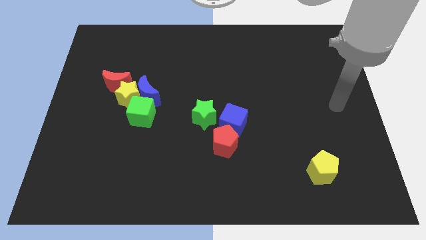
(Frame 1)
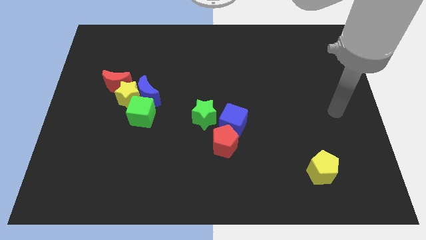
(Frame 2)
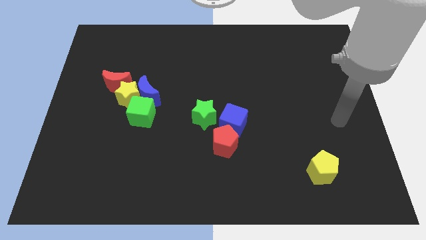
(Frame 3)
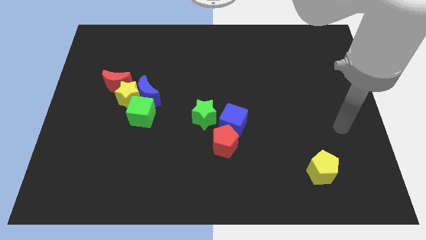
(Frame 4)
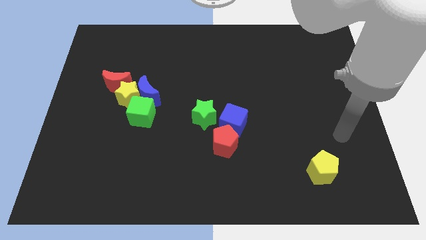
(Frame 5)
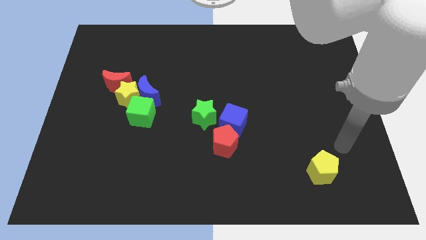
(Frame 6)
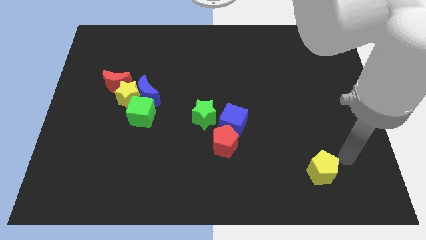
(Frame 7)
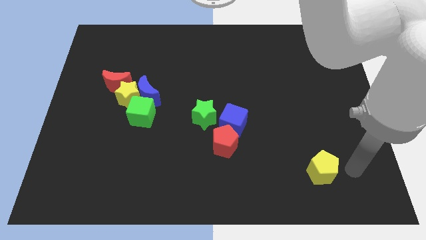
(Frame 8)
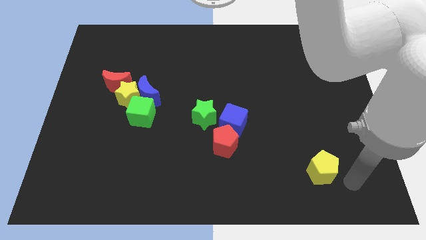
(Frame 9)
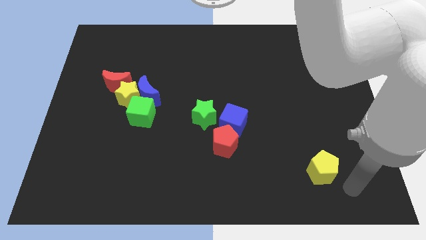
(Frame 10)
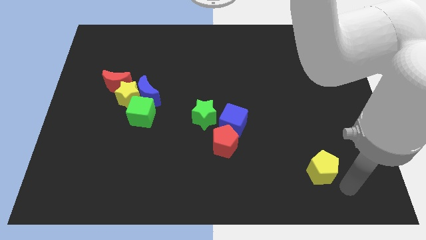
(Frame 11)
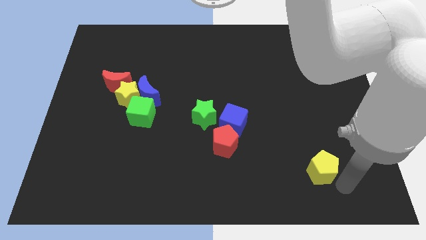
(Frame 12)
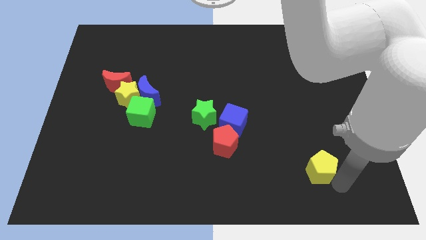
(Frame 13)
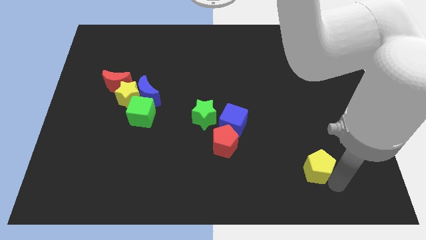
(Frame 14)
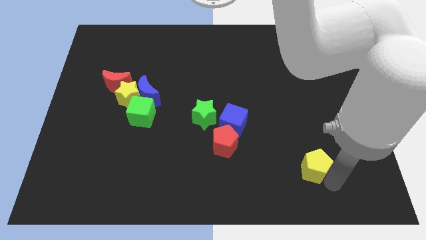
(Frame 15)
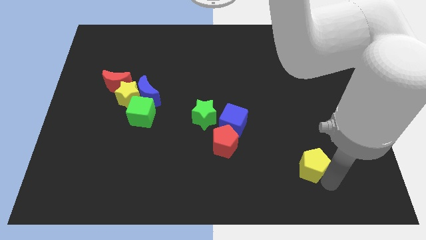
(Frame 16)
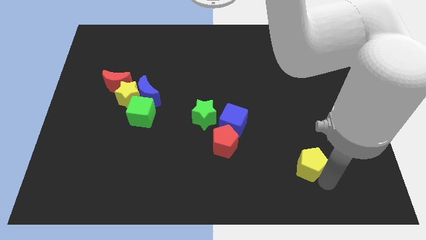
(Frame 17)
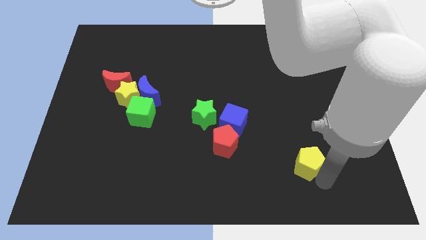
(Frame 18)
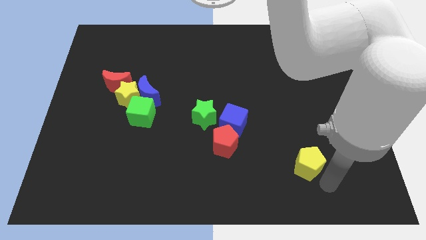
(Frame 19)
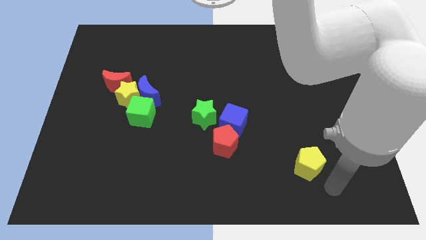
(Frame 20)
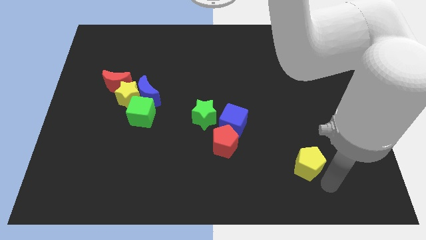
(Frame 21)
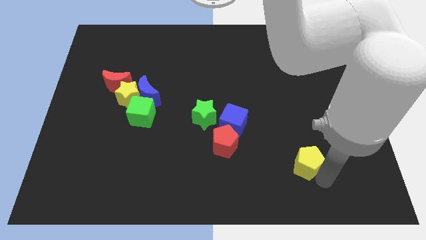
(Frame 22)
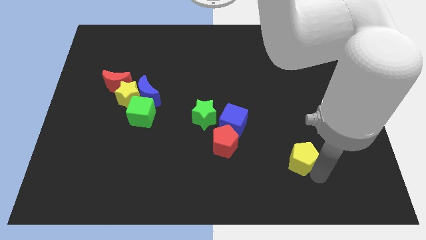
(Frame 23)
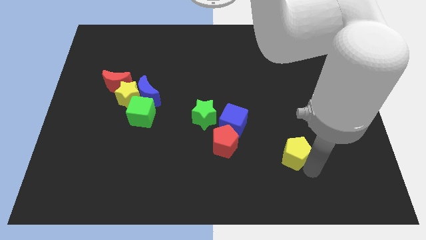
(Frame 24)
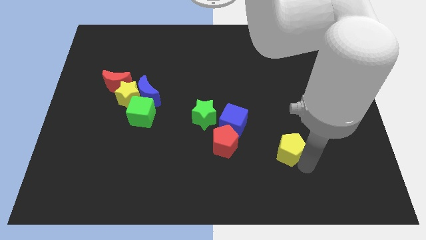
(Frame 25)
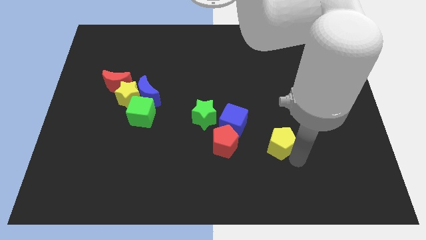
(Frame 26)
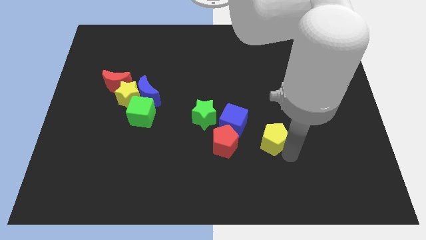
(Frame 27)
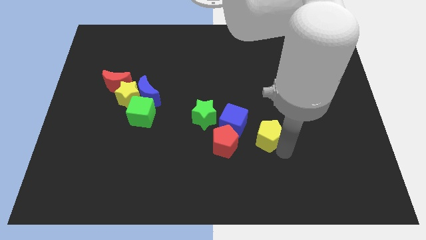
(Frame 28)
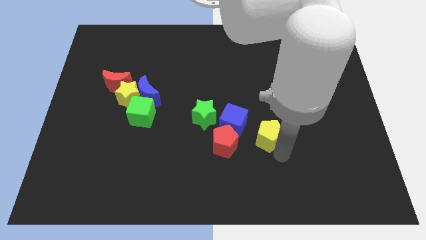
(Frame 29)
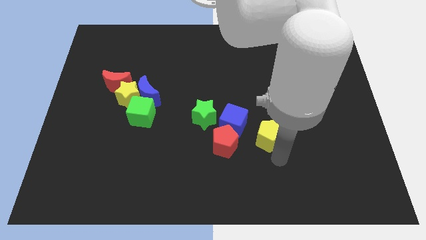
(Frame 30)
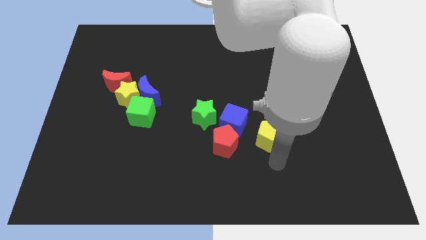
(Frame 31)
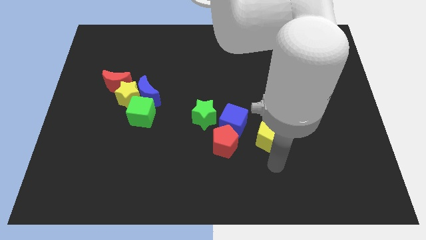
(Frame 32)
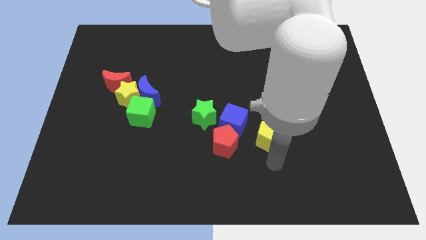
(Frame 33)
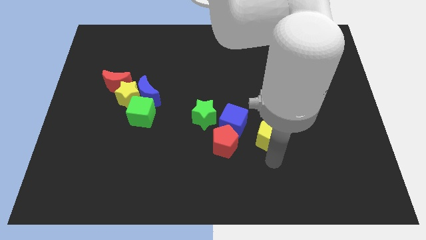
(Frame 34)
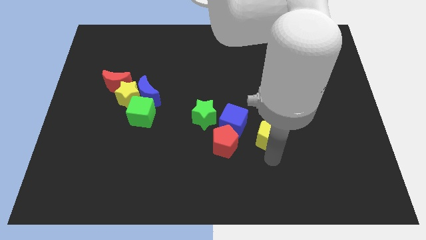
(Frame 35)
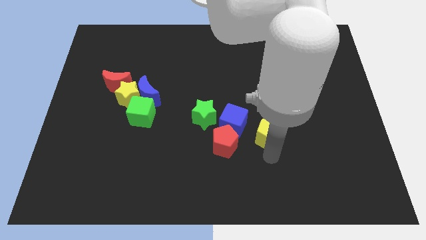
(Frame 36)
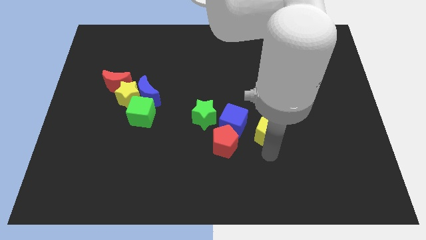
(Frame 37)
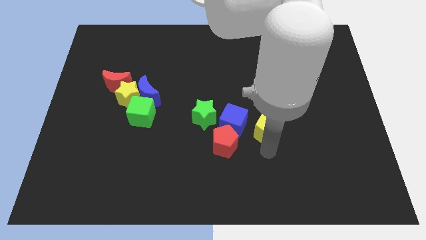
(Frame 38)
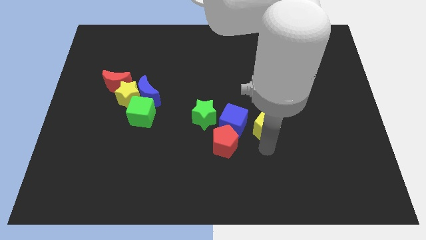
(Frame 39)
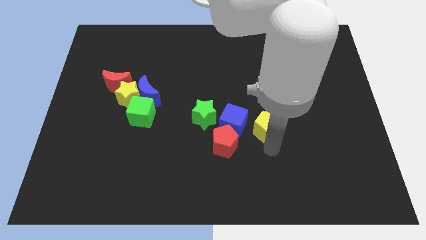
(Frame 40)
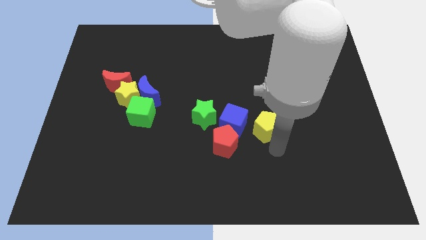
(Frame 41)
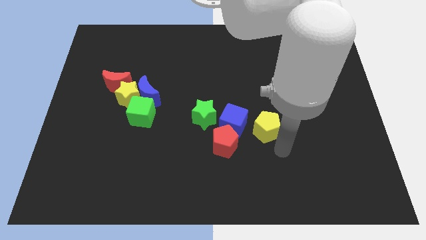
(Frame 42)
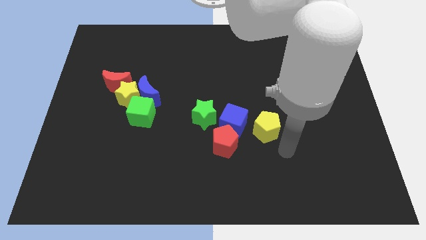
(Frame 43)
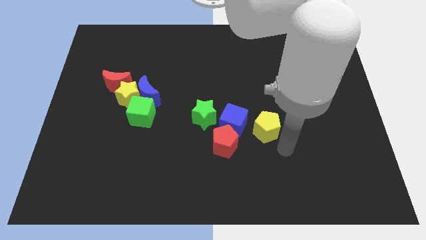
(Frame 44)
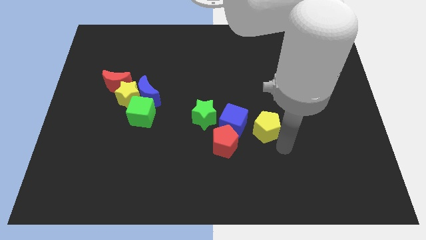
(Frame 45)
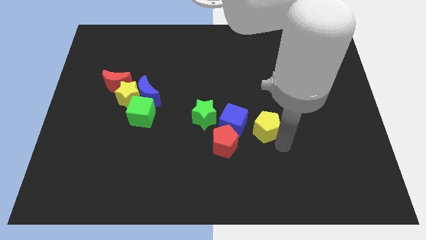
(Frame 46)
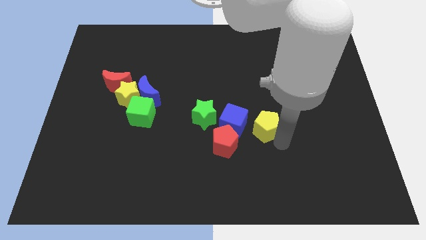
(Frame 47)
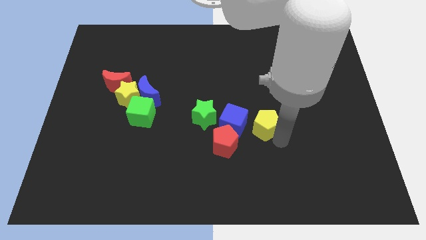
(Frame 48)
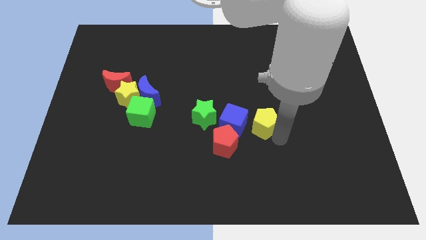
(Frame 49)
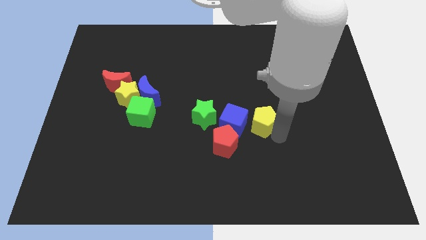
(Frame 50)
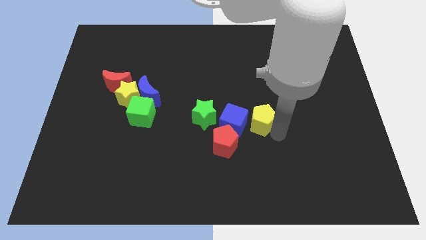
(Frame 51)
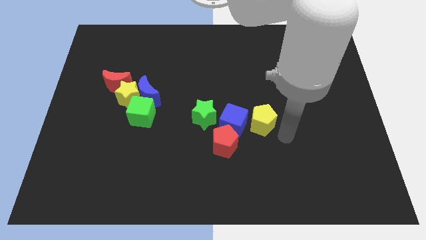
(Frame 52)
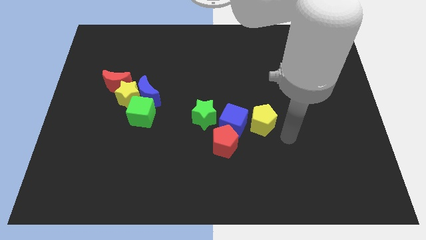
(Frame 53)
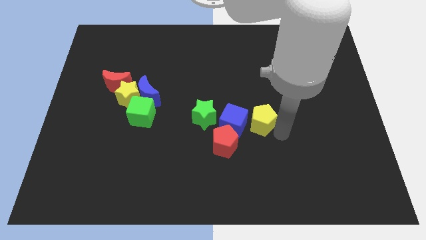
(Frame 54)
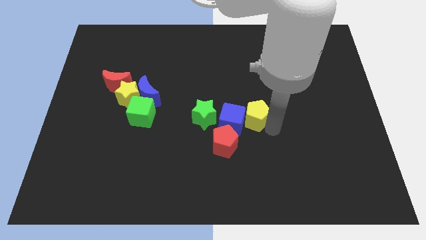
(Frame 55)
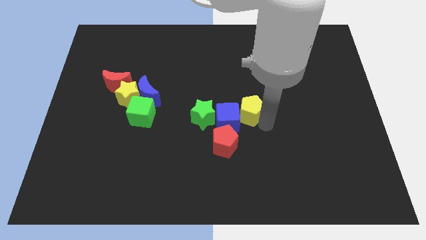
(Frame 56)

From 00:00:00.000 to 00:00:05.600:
move the yellow pentagon up and left

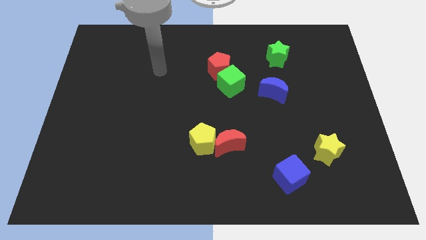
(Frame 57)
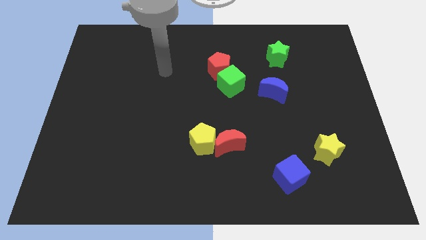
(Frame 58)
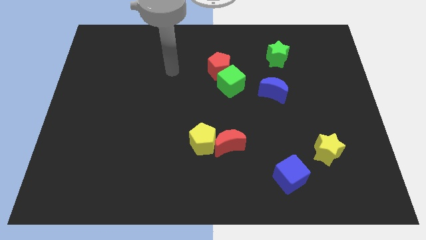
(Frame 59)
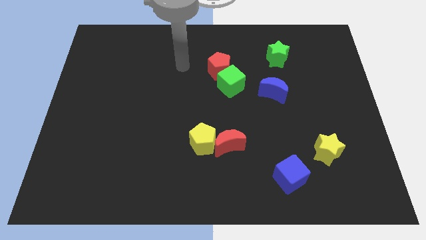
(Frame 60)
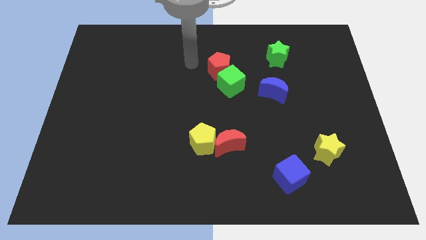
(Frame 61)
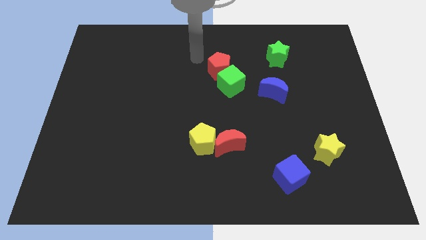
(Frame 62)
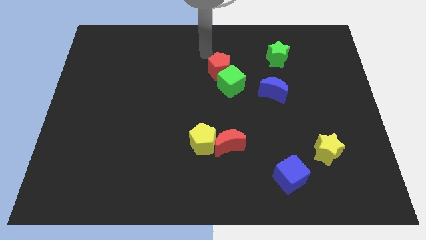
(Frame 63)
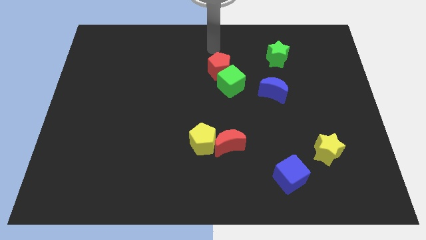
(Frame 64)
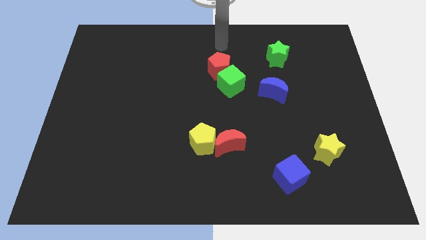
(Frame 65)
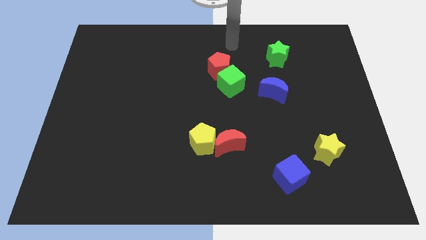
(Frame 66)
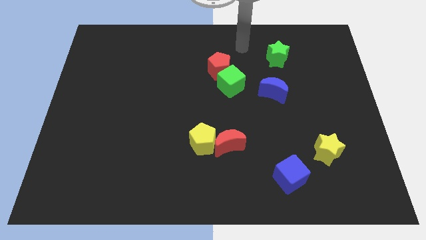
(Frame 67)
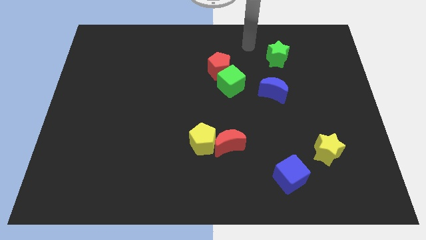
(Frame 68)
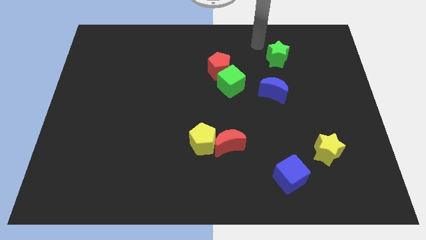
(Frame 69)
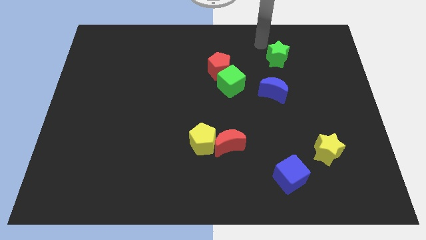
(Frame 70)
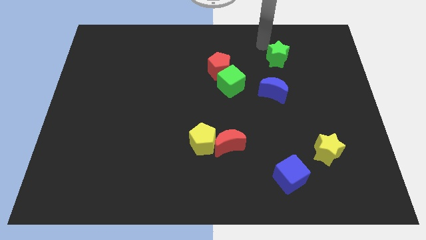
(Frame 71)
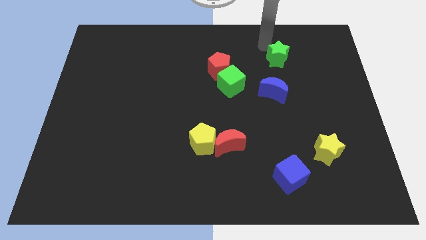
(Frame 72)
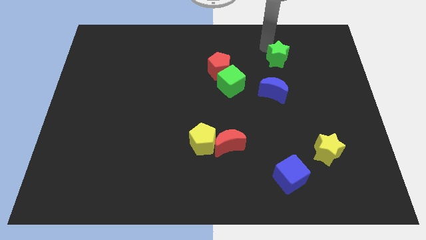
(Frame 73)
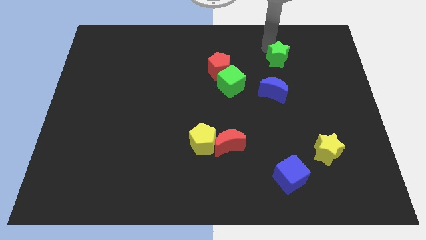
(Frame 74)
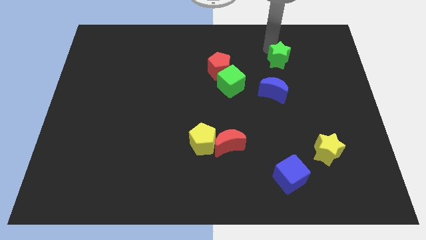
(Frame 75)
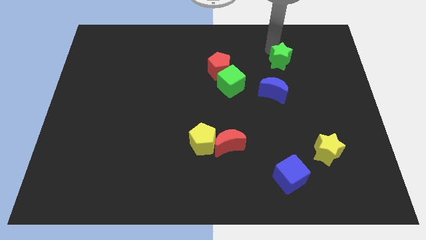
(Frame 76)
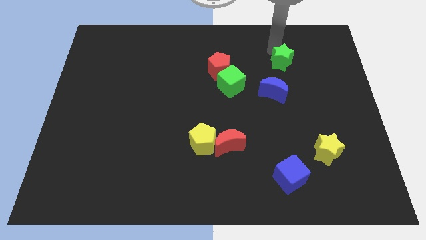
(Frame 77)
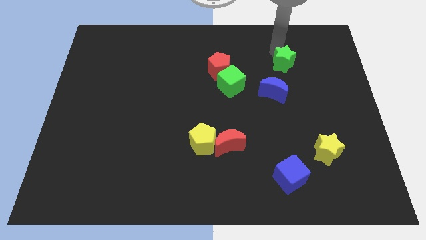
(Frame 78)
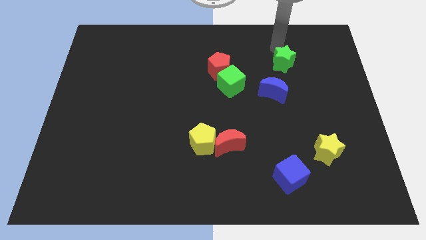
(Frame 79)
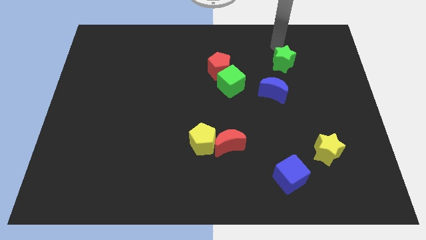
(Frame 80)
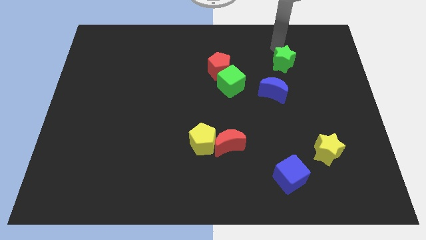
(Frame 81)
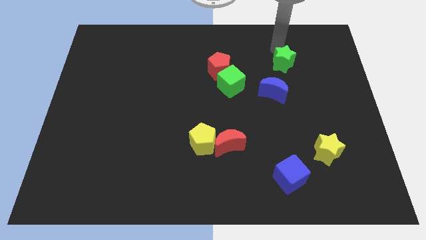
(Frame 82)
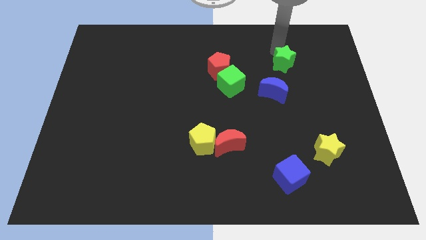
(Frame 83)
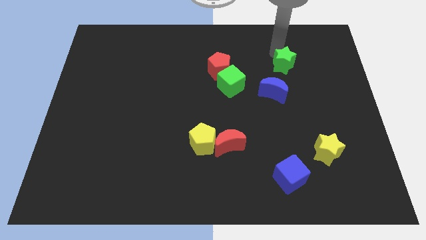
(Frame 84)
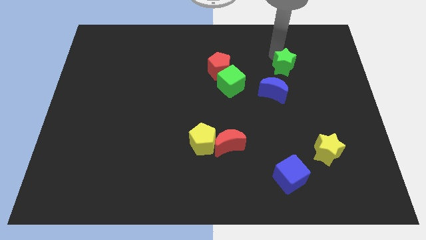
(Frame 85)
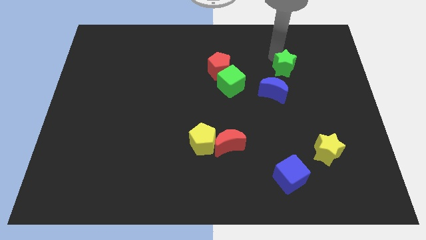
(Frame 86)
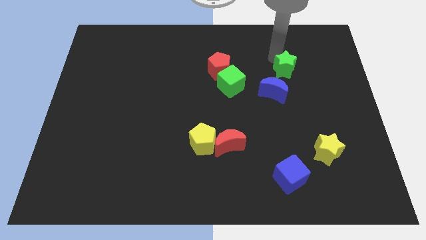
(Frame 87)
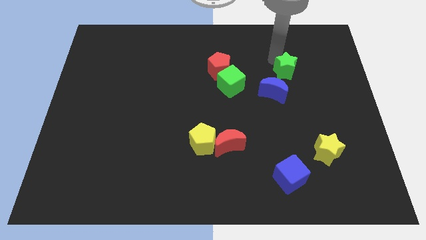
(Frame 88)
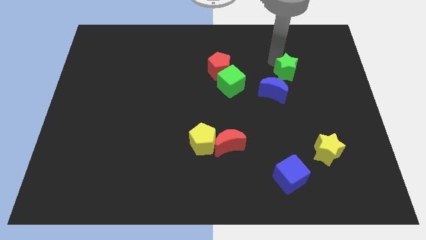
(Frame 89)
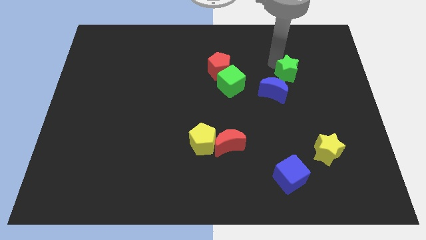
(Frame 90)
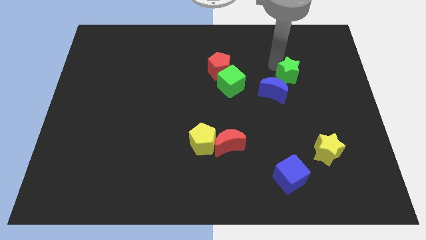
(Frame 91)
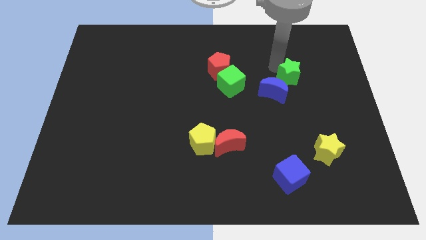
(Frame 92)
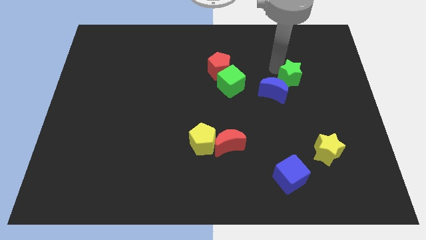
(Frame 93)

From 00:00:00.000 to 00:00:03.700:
slide the green star downwards somewhat
